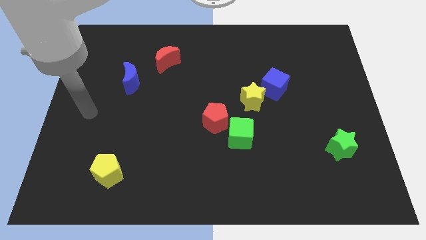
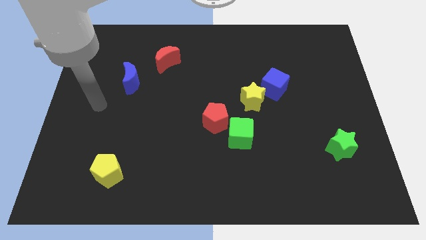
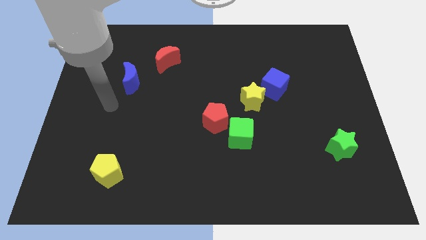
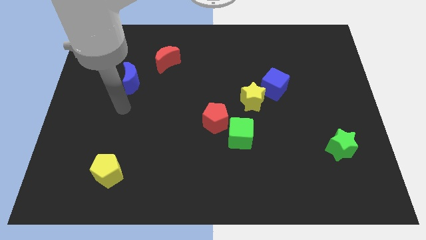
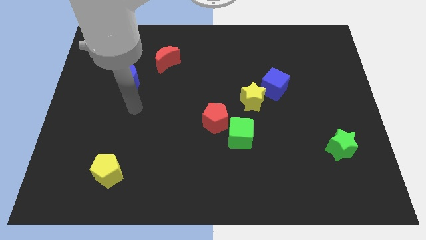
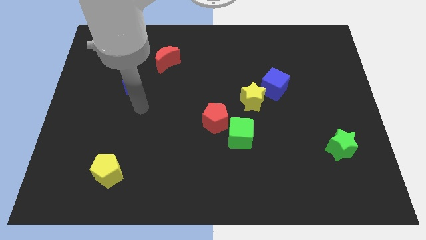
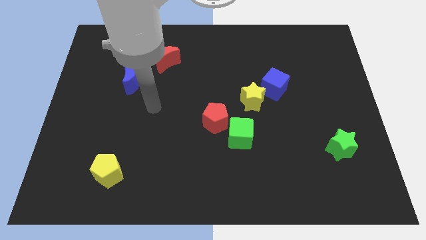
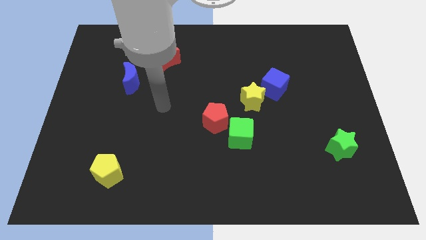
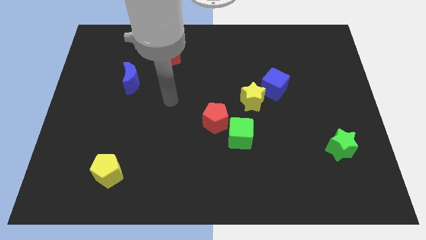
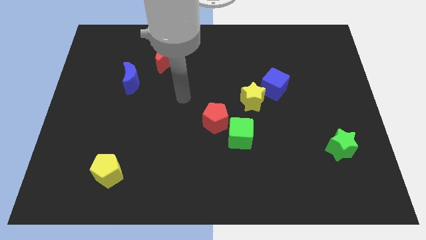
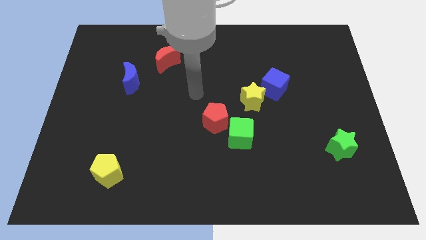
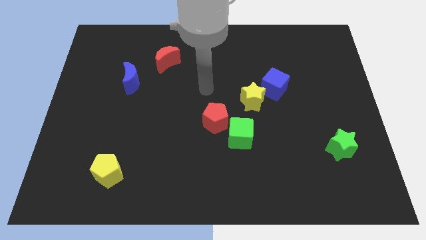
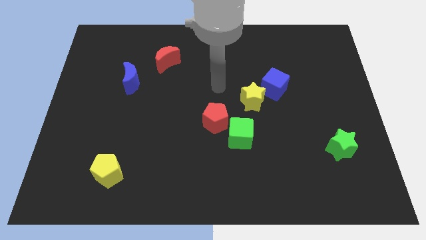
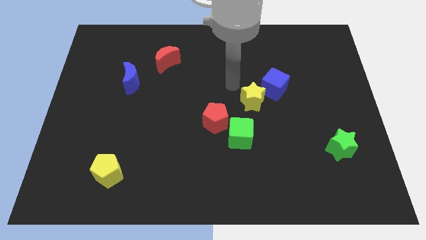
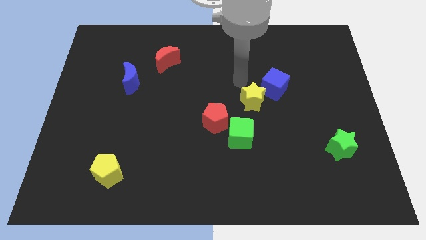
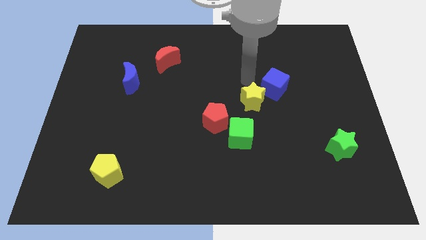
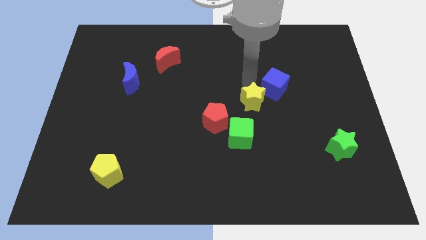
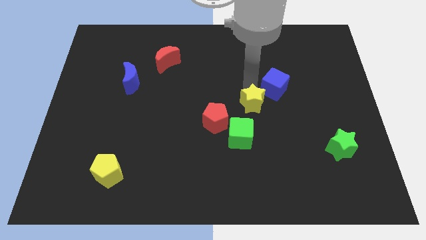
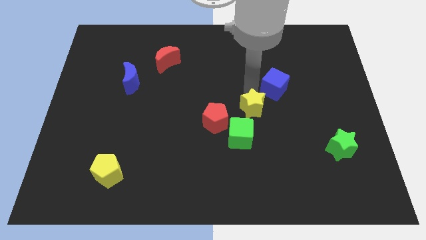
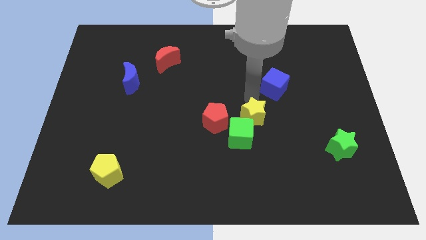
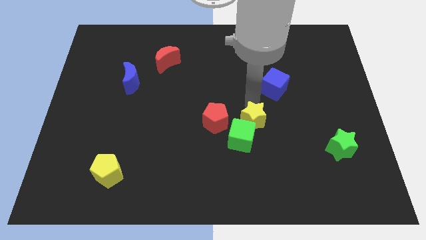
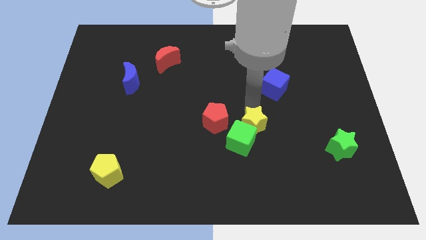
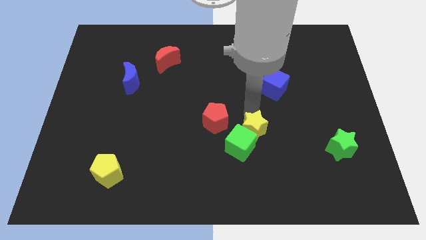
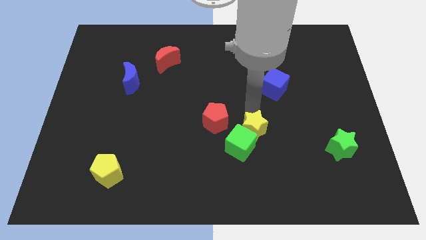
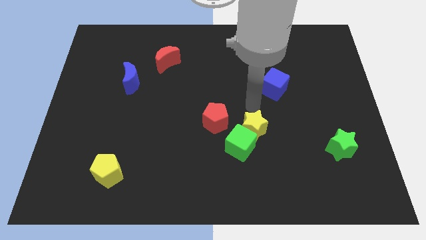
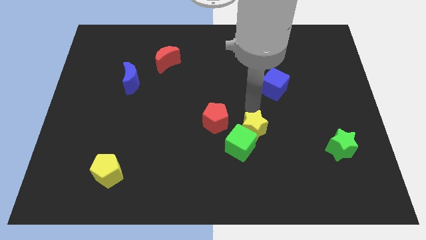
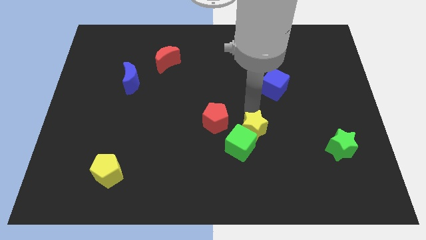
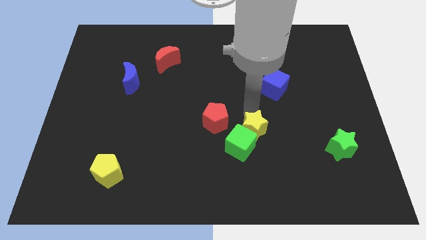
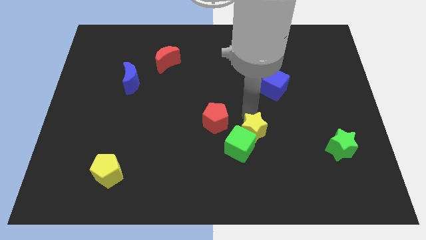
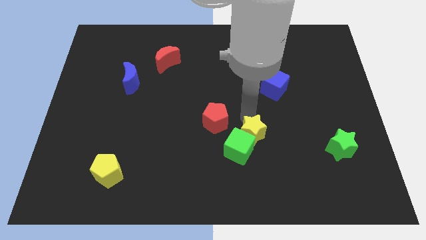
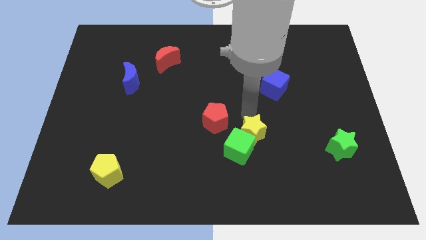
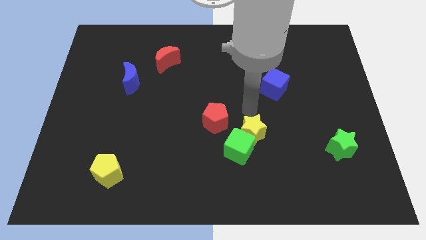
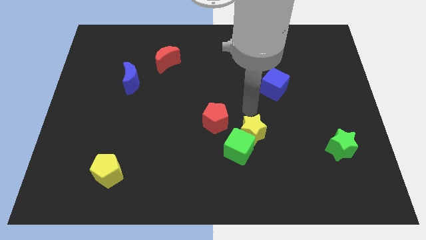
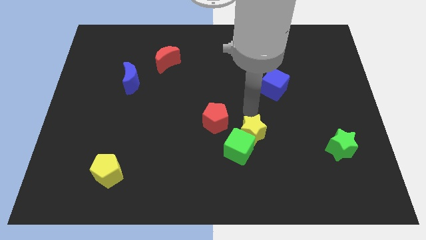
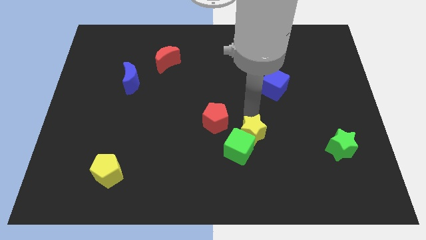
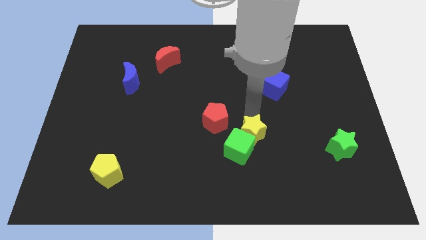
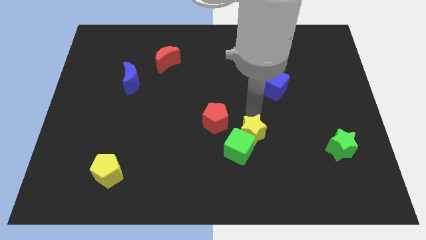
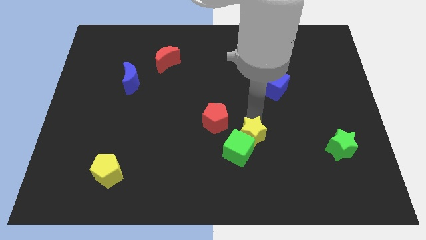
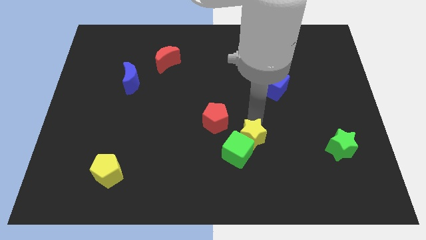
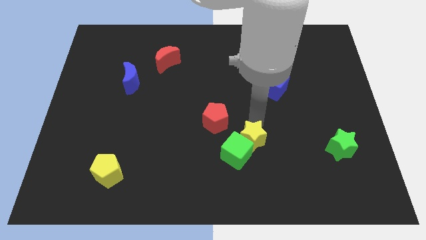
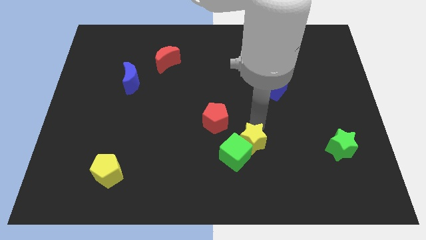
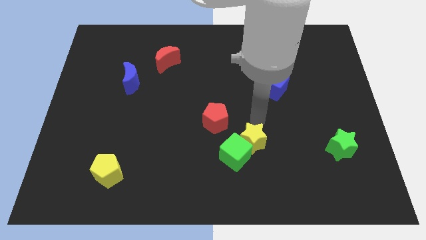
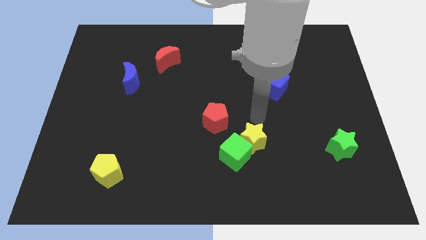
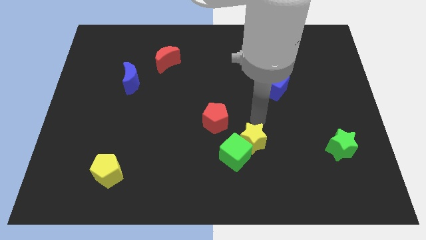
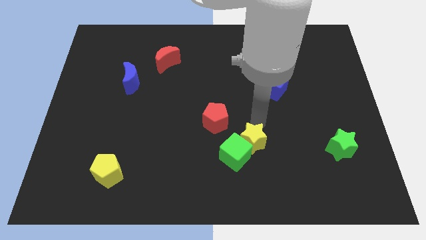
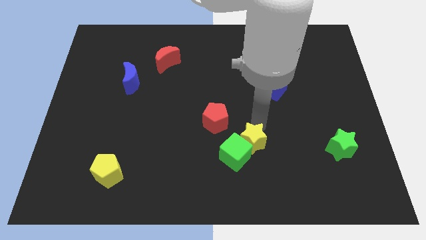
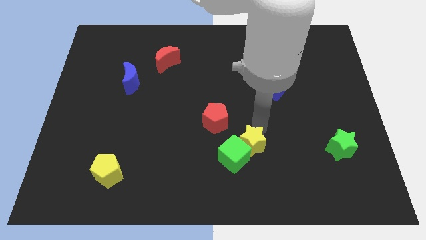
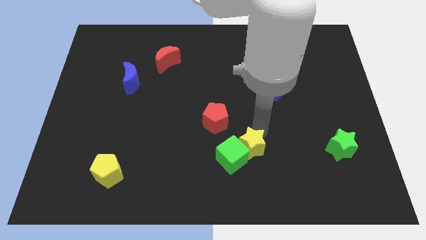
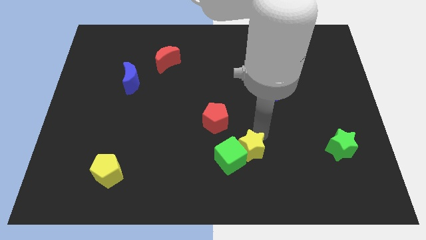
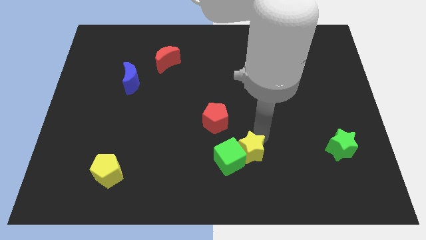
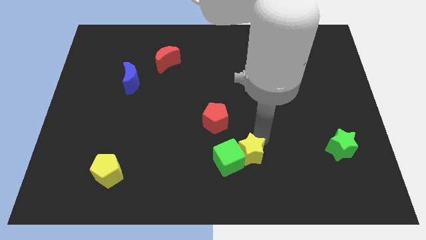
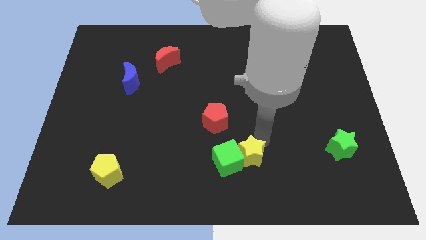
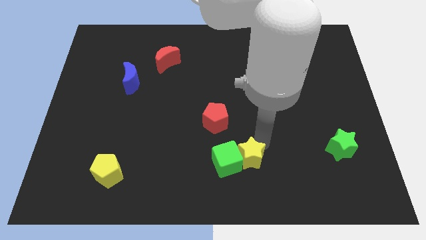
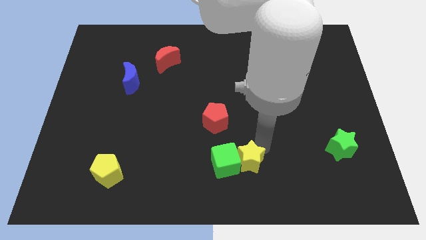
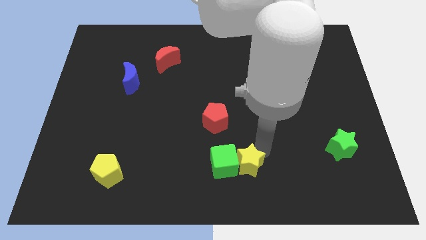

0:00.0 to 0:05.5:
put the yellow star to the bottom

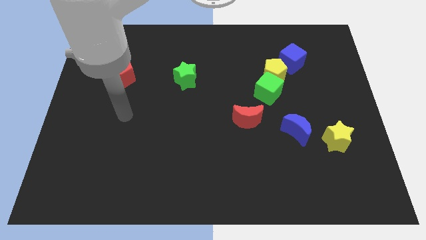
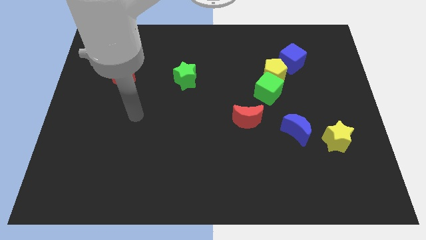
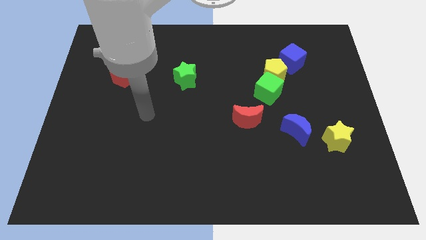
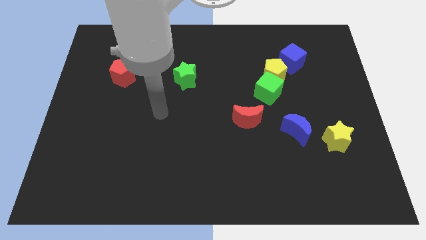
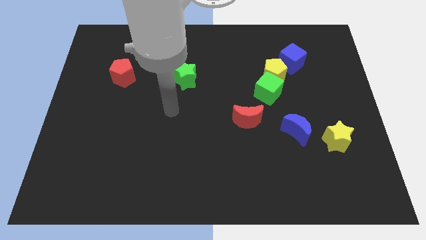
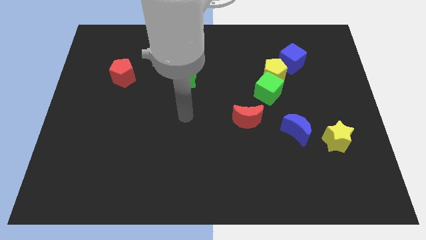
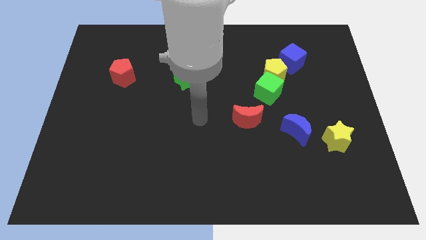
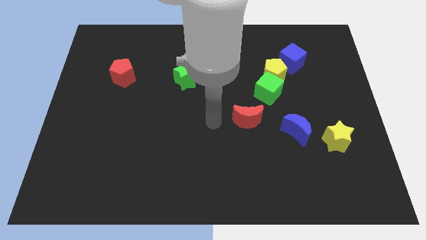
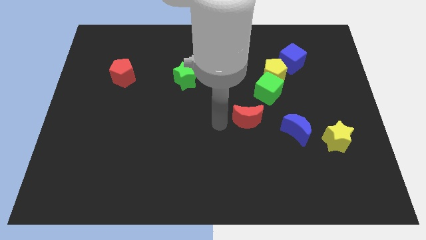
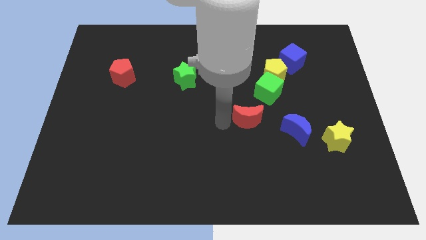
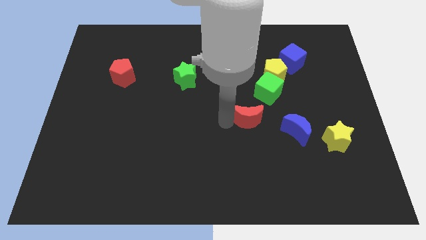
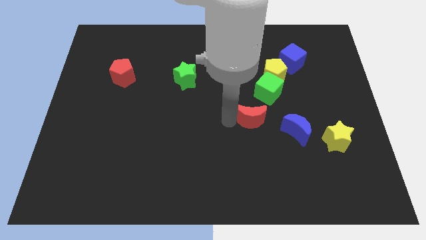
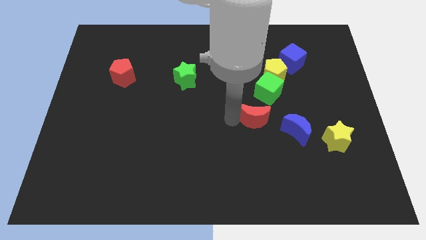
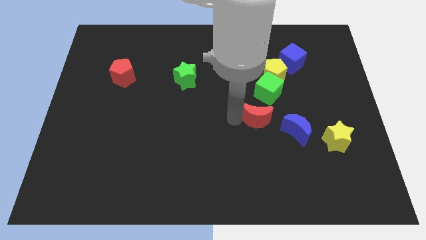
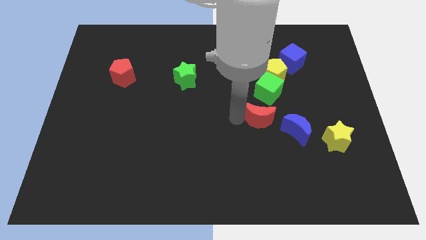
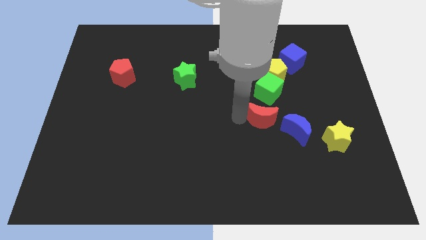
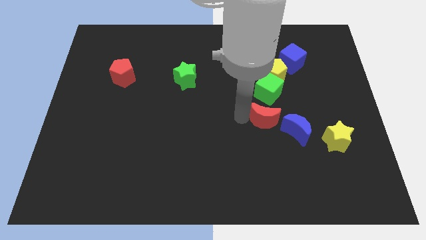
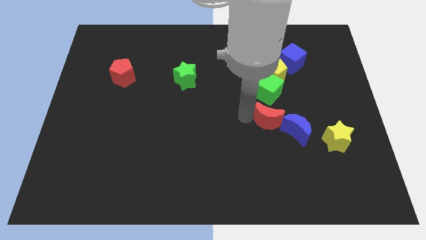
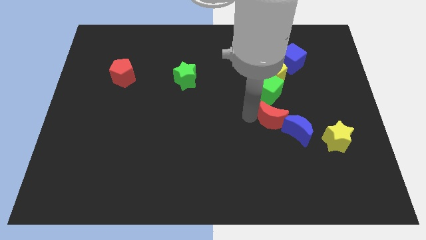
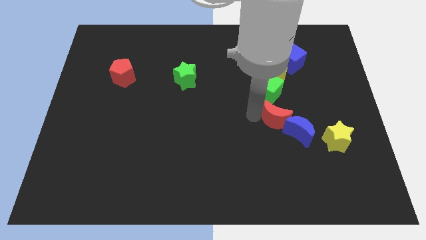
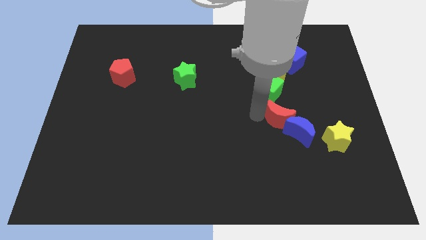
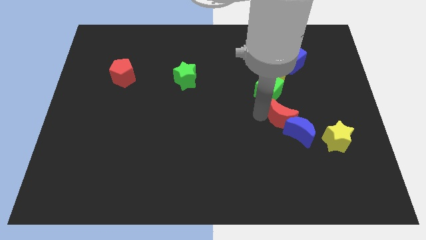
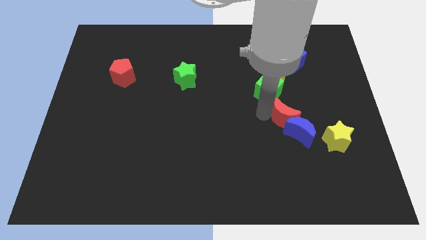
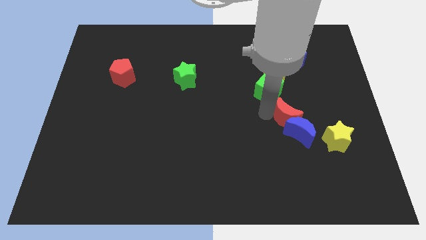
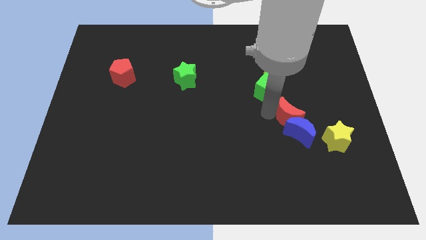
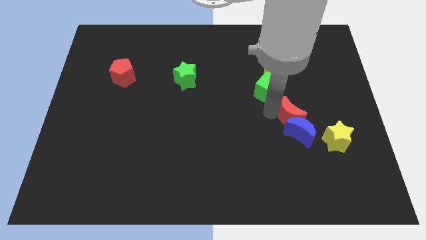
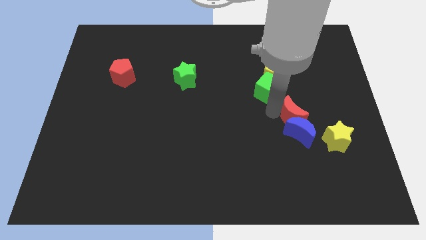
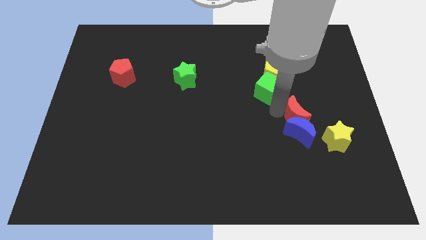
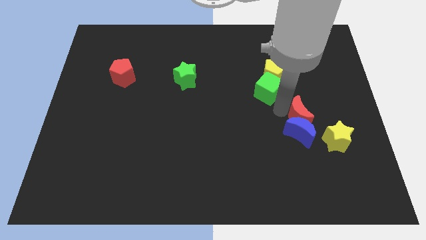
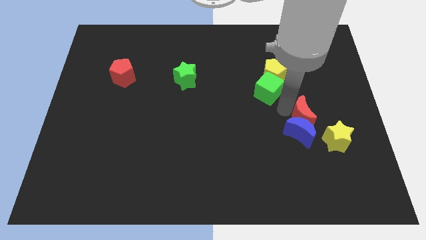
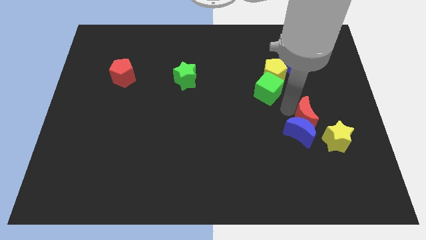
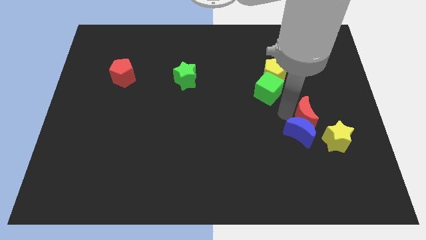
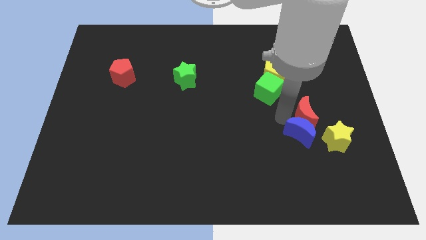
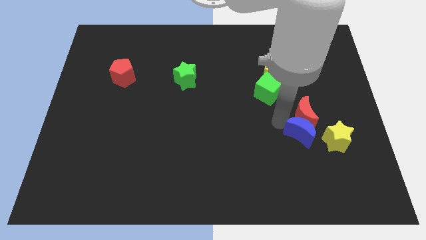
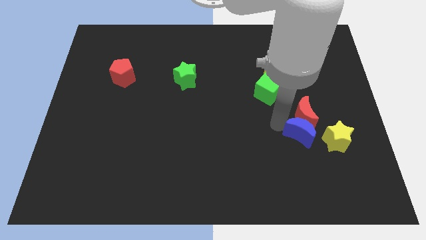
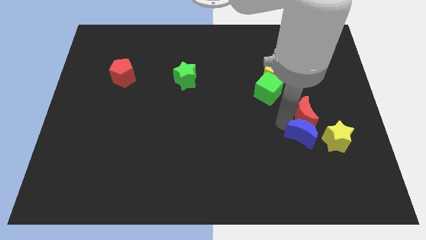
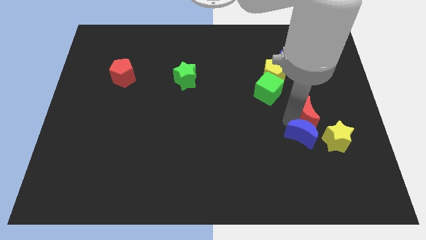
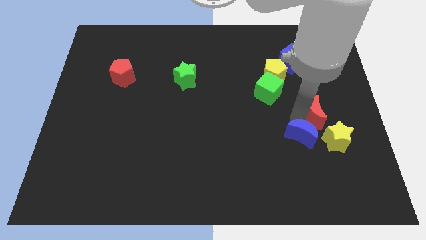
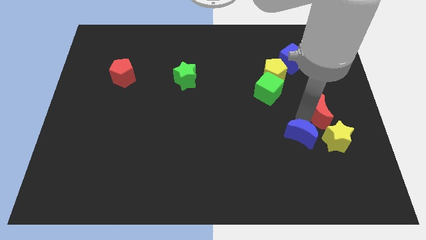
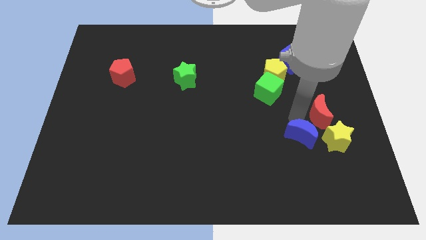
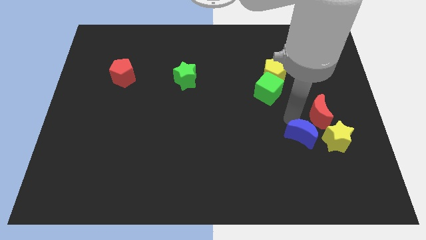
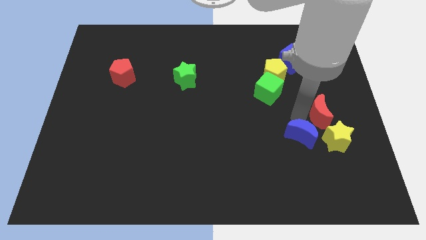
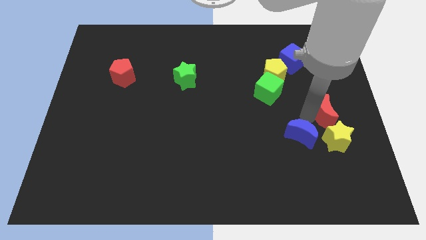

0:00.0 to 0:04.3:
push the red moon to the center right
